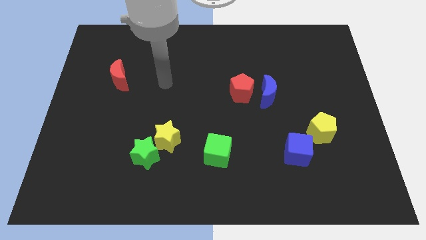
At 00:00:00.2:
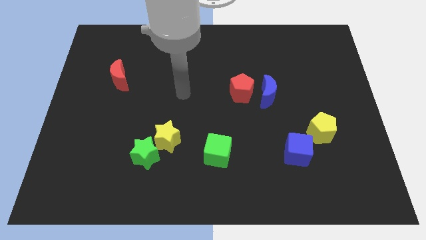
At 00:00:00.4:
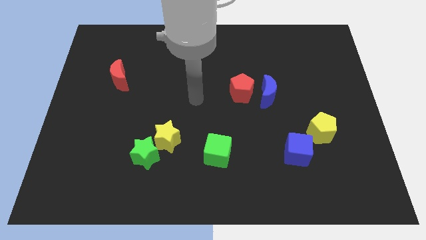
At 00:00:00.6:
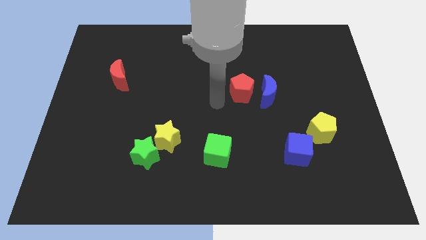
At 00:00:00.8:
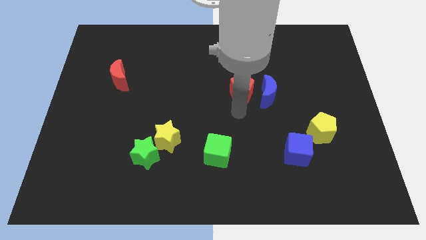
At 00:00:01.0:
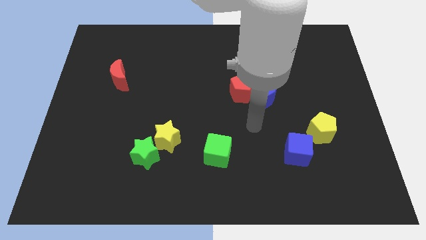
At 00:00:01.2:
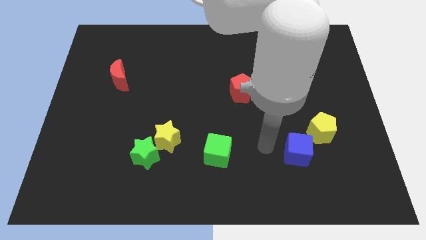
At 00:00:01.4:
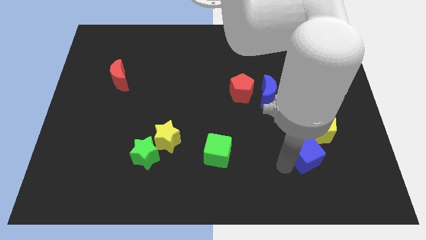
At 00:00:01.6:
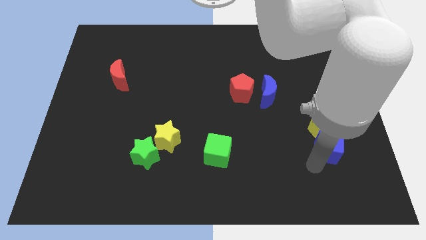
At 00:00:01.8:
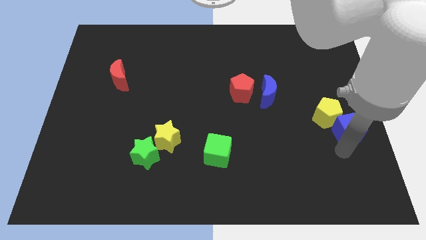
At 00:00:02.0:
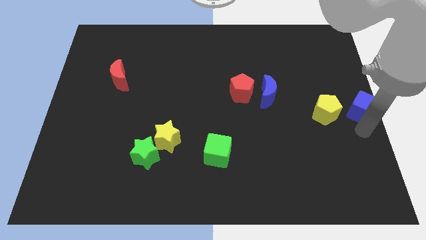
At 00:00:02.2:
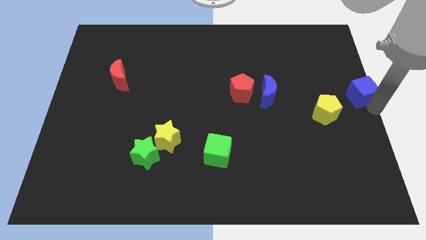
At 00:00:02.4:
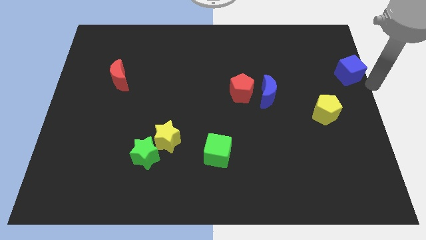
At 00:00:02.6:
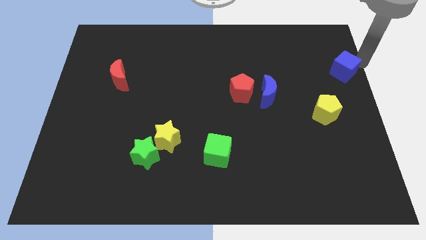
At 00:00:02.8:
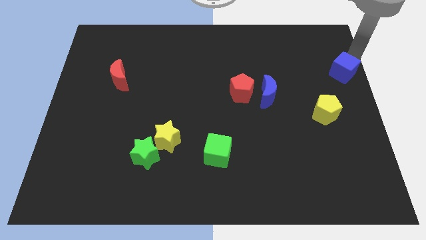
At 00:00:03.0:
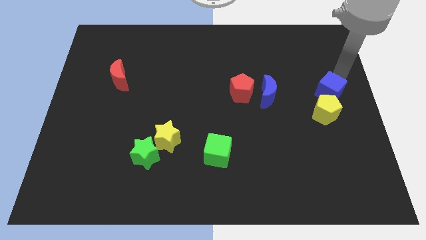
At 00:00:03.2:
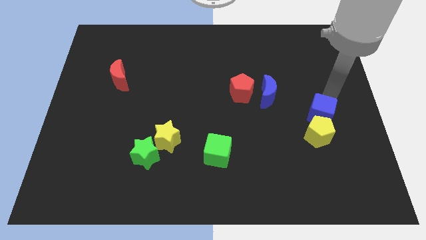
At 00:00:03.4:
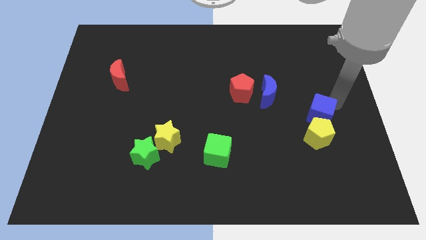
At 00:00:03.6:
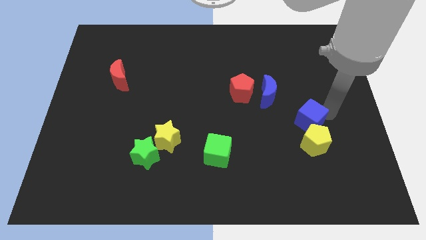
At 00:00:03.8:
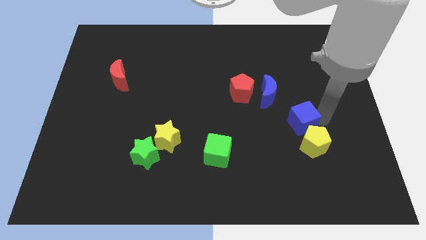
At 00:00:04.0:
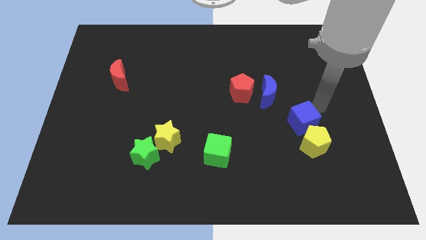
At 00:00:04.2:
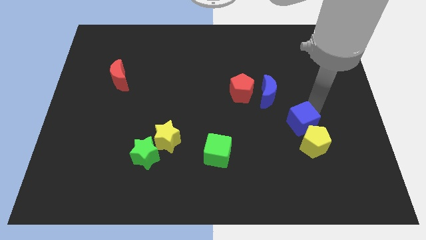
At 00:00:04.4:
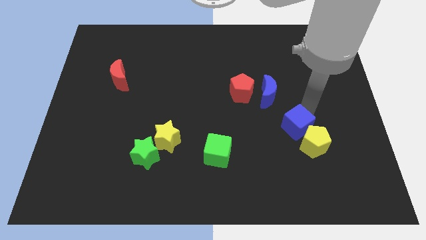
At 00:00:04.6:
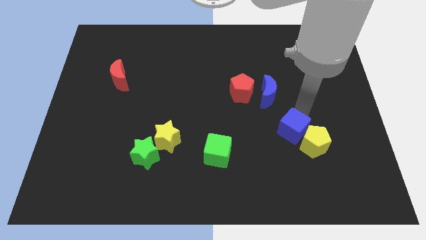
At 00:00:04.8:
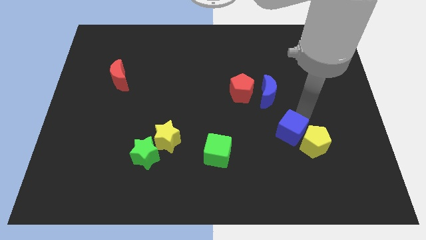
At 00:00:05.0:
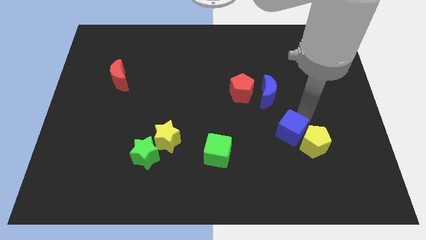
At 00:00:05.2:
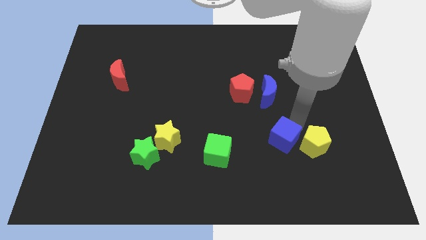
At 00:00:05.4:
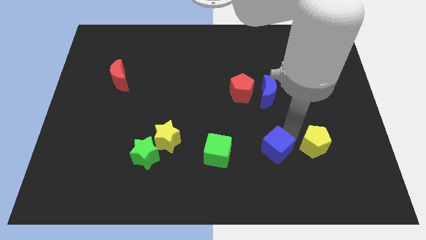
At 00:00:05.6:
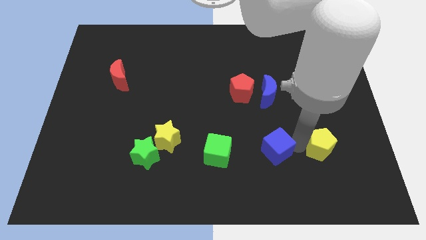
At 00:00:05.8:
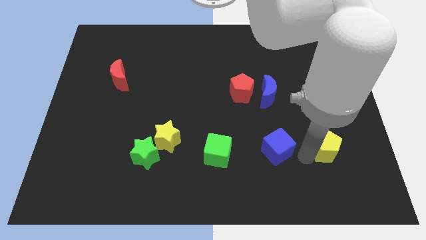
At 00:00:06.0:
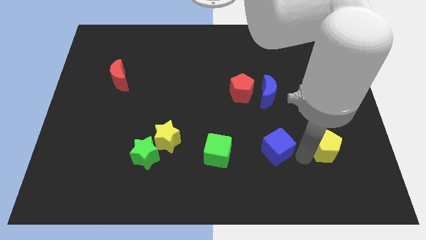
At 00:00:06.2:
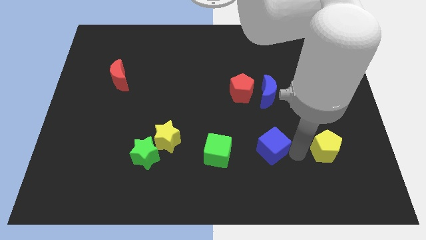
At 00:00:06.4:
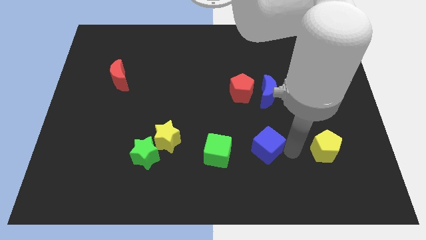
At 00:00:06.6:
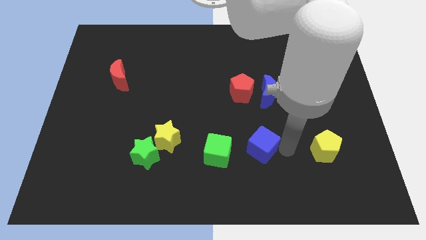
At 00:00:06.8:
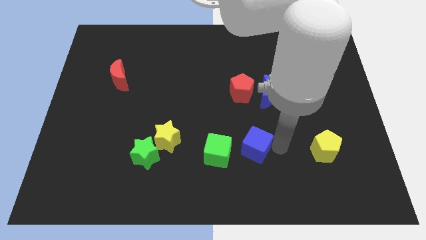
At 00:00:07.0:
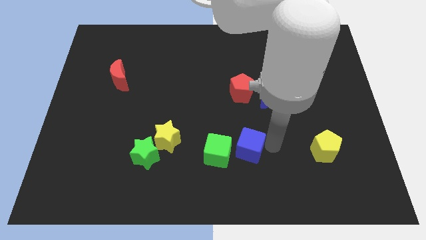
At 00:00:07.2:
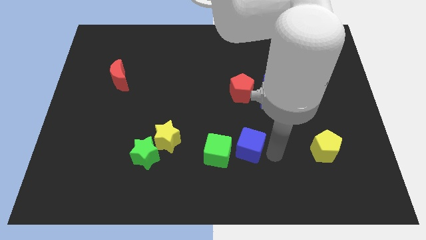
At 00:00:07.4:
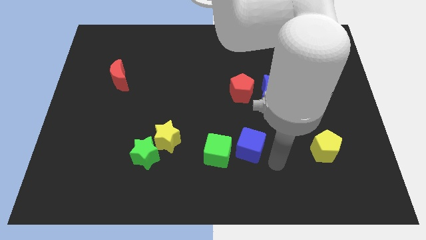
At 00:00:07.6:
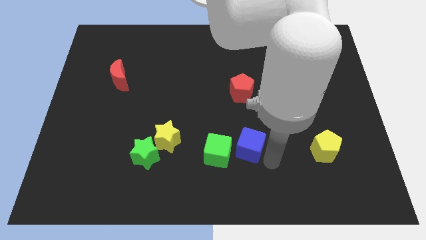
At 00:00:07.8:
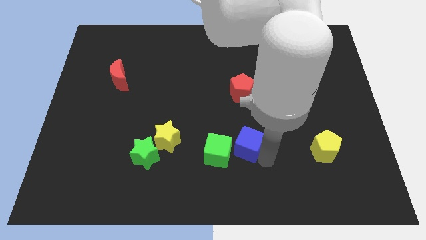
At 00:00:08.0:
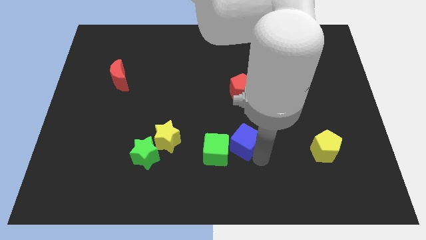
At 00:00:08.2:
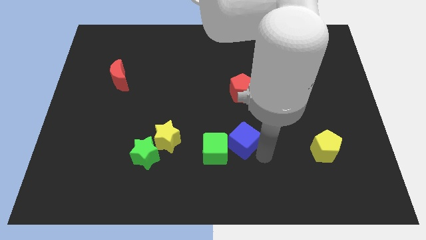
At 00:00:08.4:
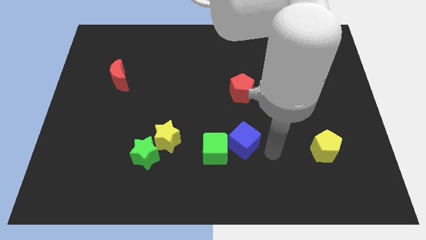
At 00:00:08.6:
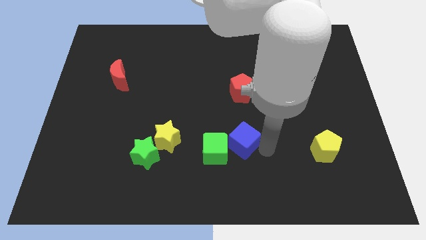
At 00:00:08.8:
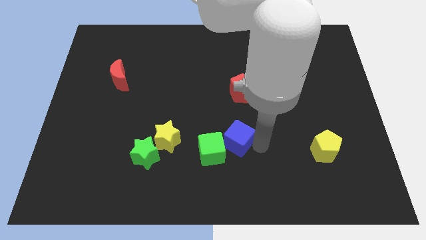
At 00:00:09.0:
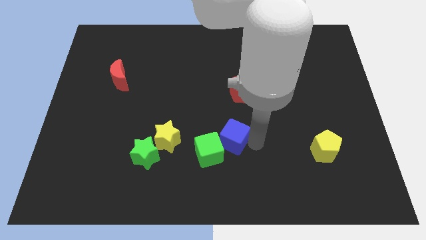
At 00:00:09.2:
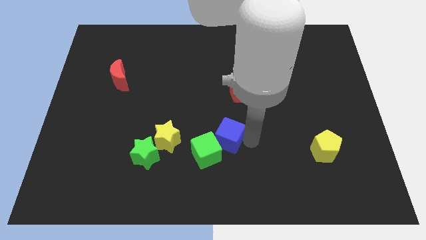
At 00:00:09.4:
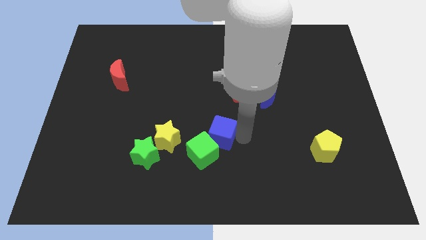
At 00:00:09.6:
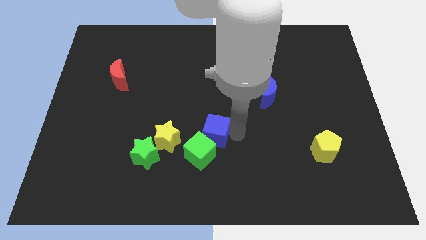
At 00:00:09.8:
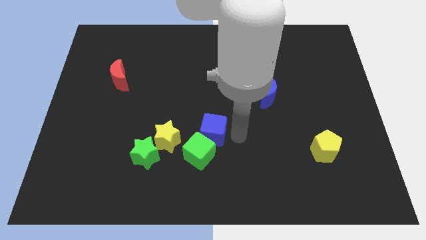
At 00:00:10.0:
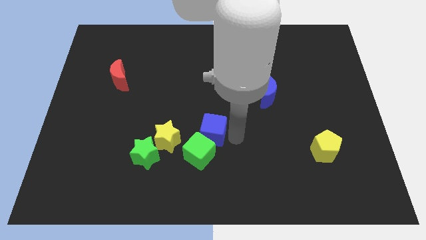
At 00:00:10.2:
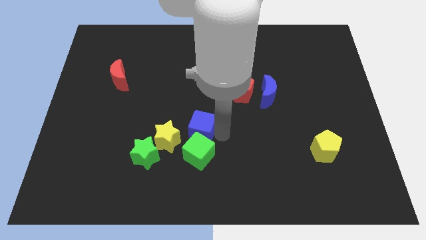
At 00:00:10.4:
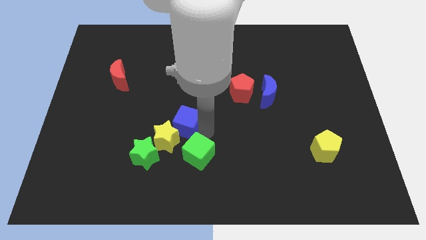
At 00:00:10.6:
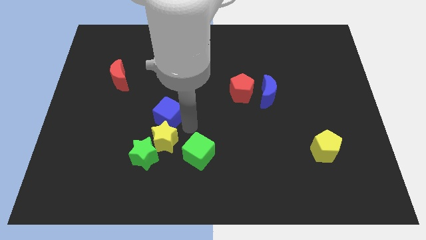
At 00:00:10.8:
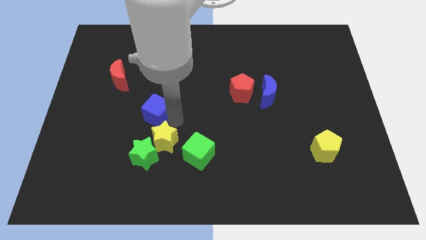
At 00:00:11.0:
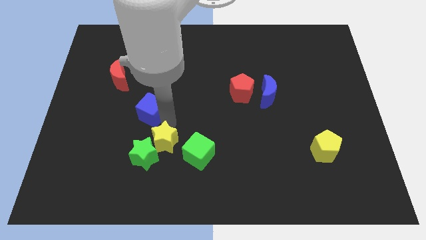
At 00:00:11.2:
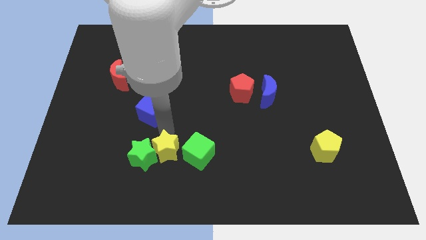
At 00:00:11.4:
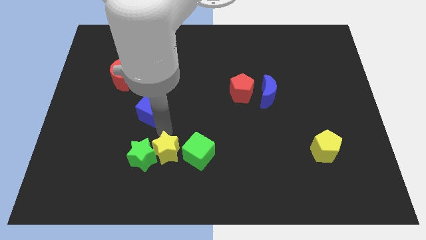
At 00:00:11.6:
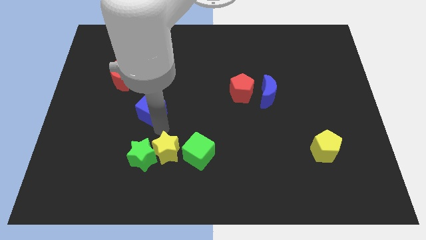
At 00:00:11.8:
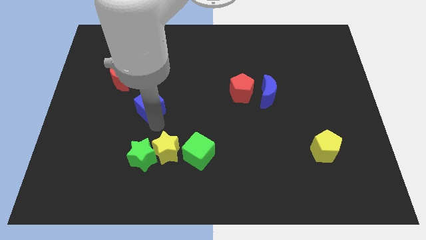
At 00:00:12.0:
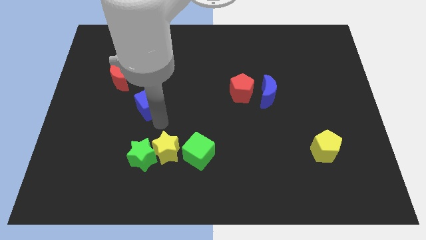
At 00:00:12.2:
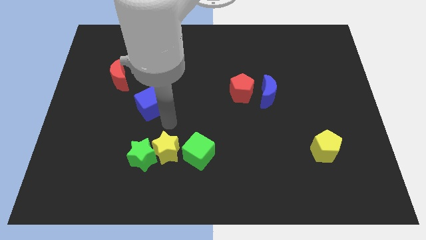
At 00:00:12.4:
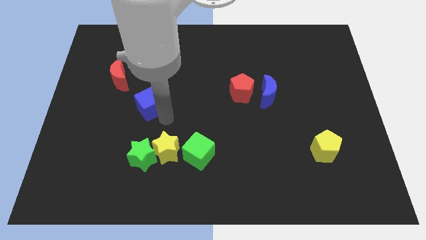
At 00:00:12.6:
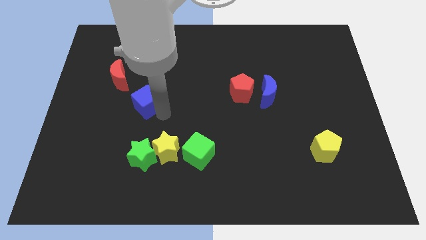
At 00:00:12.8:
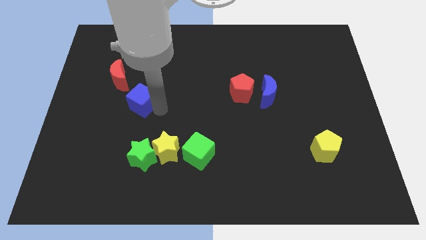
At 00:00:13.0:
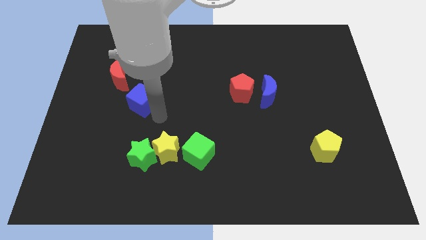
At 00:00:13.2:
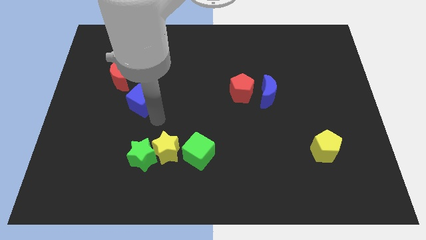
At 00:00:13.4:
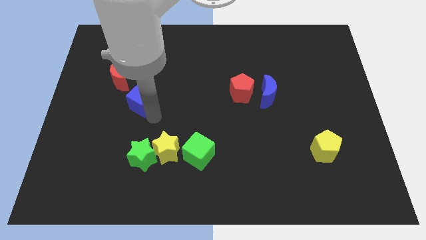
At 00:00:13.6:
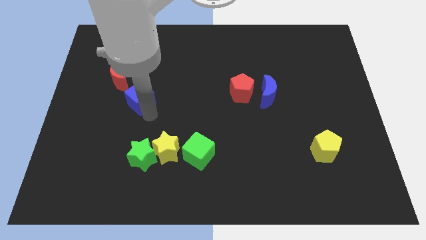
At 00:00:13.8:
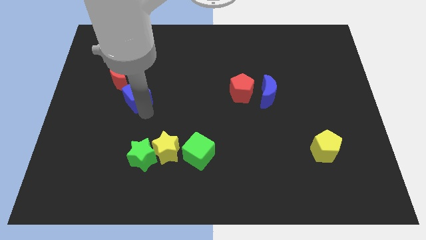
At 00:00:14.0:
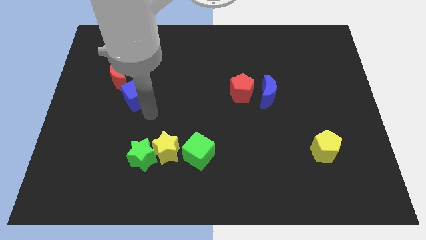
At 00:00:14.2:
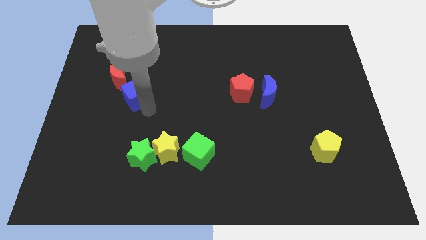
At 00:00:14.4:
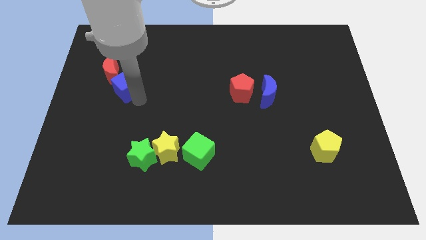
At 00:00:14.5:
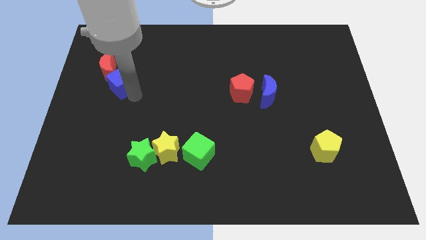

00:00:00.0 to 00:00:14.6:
slide the blue cube close to the red moon
